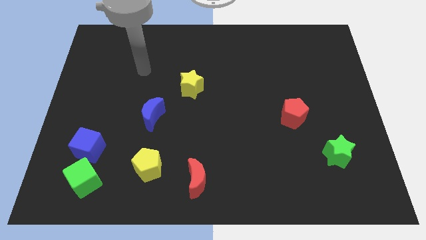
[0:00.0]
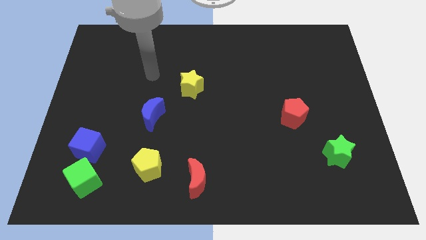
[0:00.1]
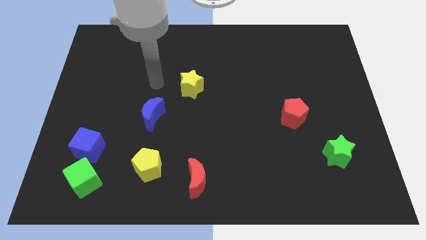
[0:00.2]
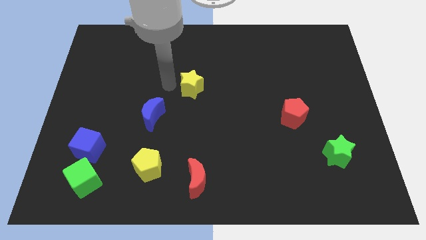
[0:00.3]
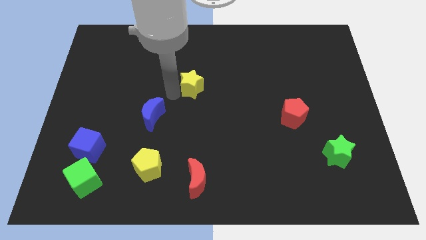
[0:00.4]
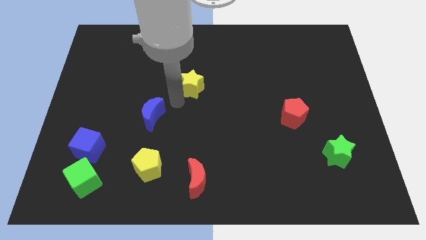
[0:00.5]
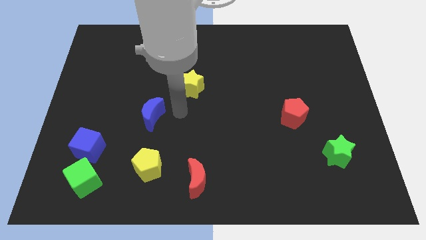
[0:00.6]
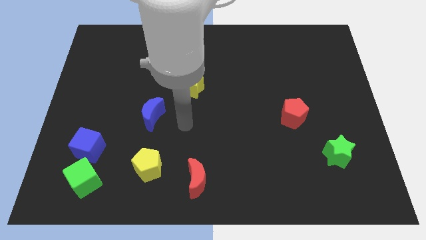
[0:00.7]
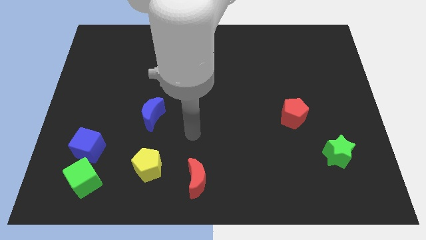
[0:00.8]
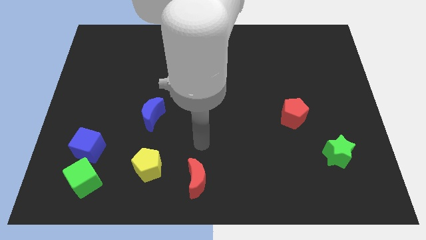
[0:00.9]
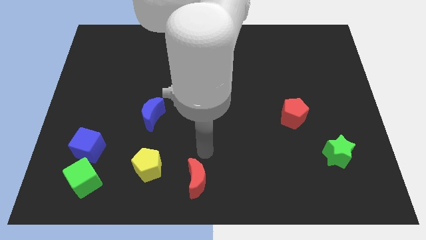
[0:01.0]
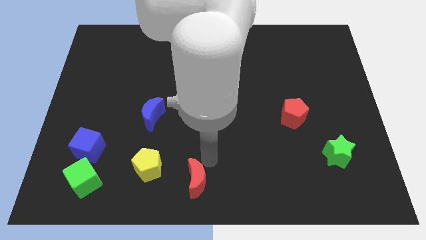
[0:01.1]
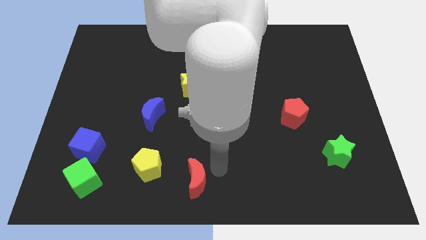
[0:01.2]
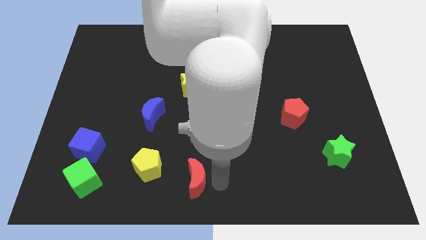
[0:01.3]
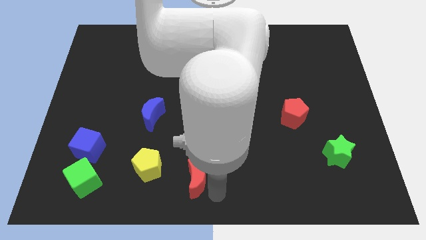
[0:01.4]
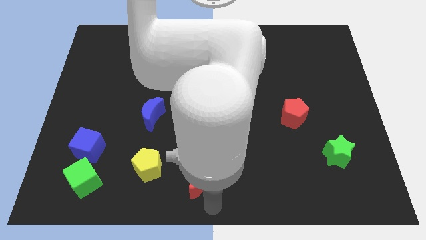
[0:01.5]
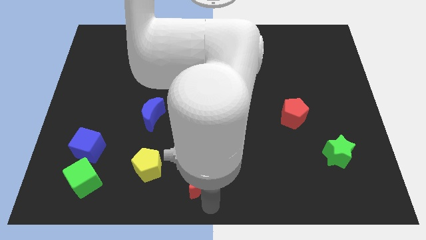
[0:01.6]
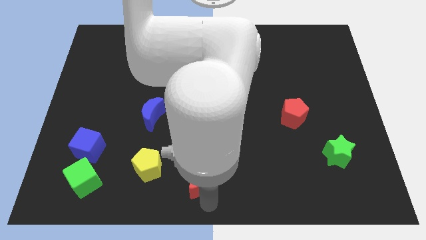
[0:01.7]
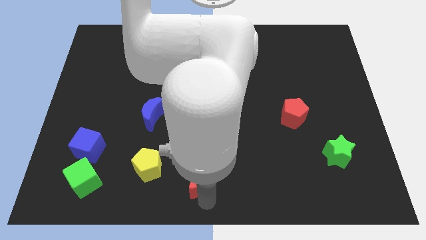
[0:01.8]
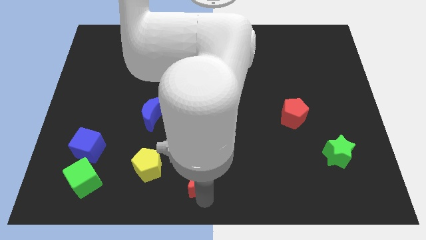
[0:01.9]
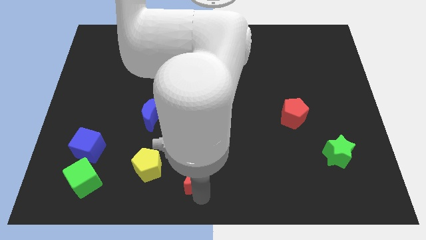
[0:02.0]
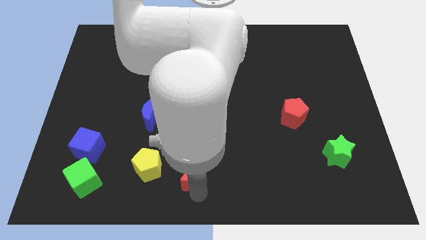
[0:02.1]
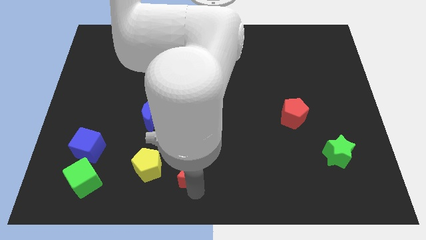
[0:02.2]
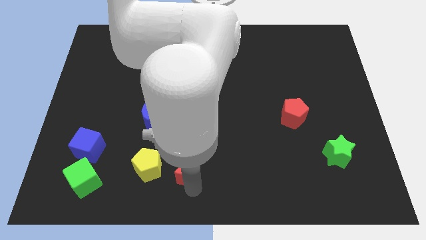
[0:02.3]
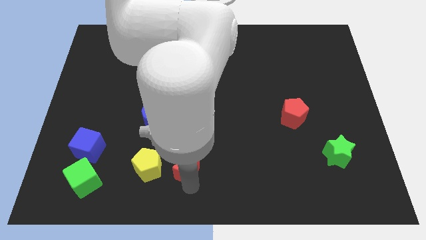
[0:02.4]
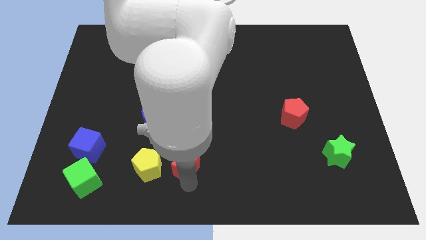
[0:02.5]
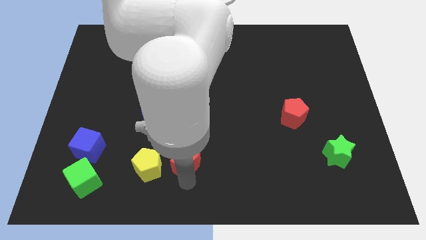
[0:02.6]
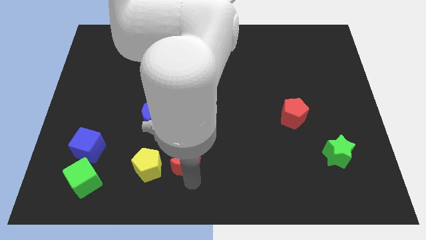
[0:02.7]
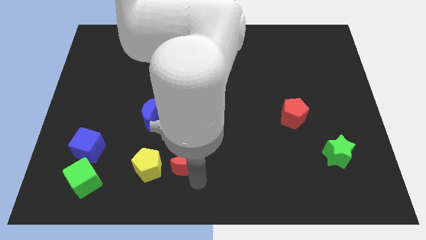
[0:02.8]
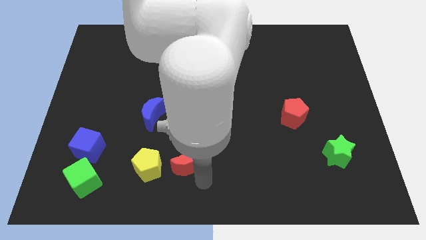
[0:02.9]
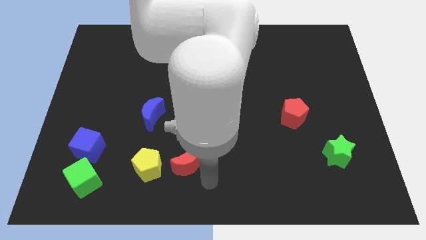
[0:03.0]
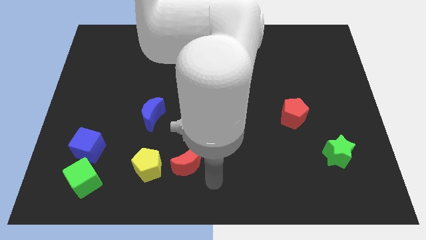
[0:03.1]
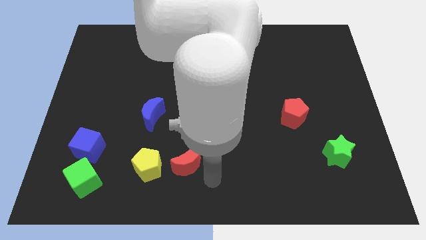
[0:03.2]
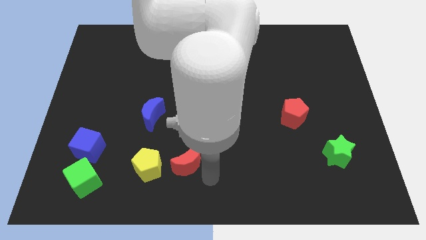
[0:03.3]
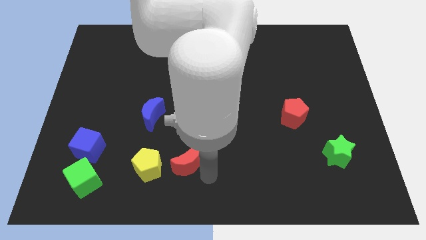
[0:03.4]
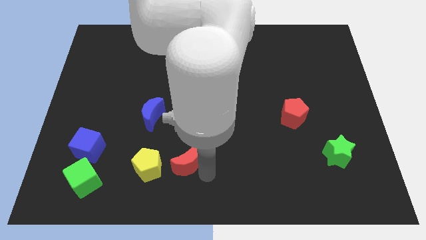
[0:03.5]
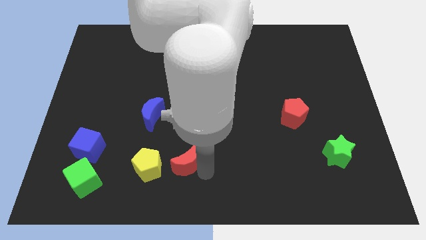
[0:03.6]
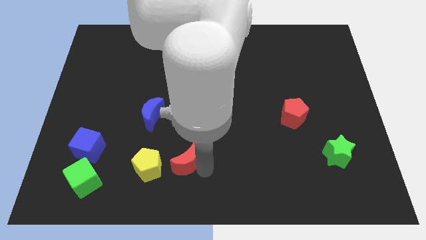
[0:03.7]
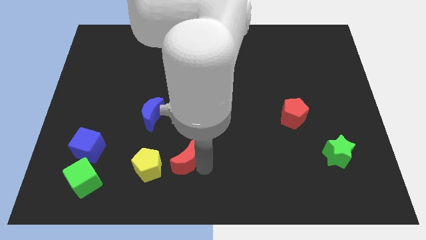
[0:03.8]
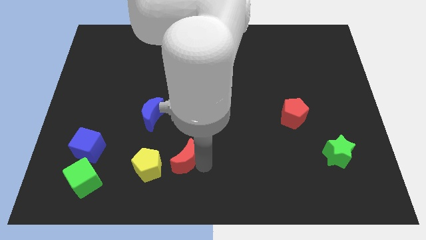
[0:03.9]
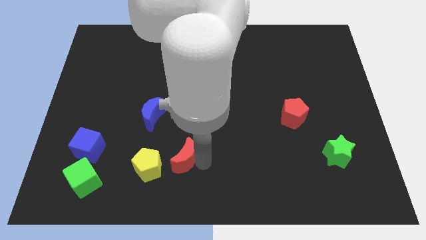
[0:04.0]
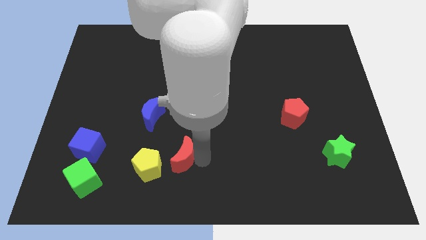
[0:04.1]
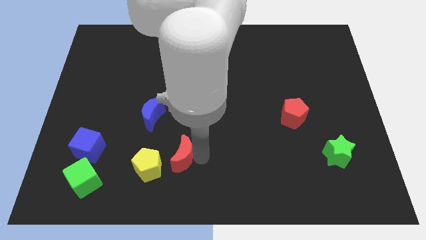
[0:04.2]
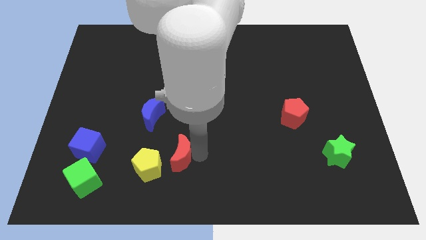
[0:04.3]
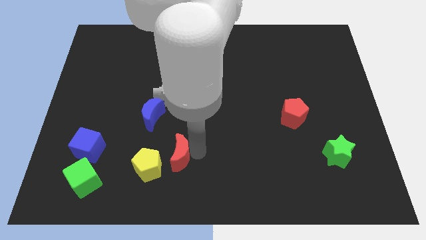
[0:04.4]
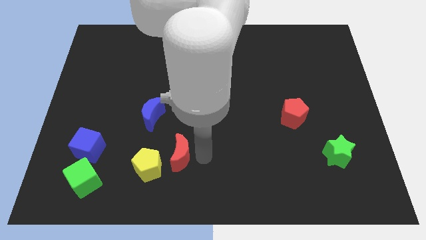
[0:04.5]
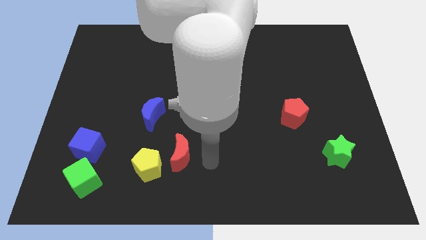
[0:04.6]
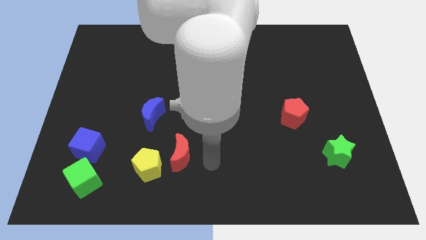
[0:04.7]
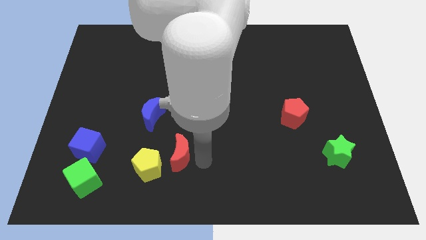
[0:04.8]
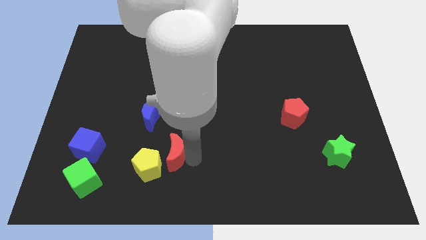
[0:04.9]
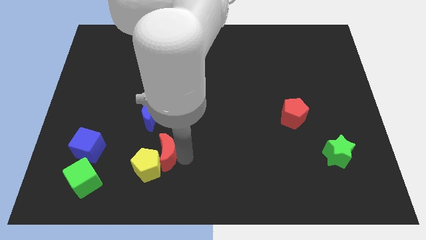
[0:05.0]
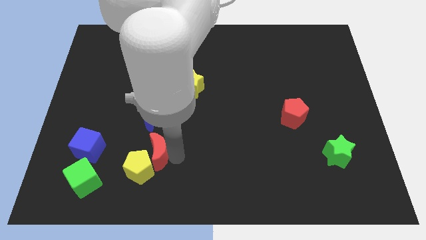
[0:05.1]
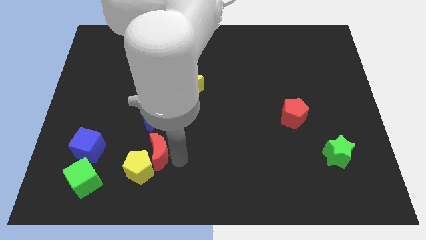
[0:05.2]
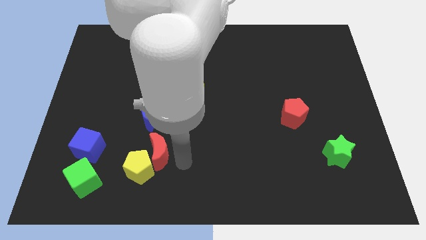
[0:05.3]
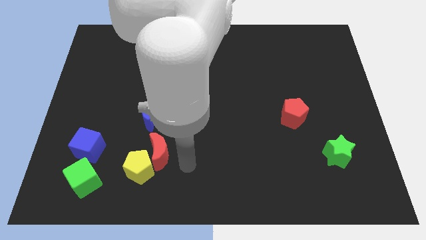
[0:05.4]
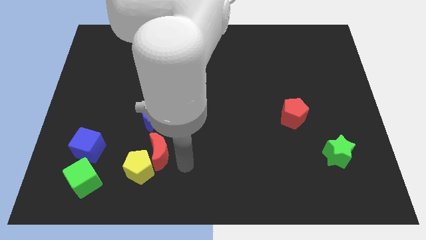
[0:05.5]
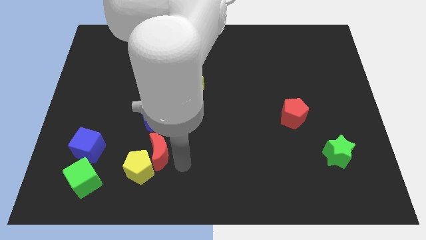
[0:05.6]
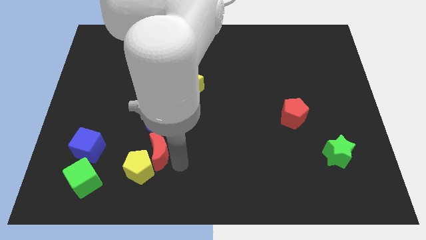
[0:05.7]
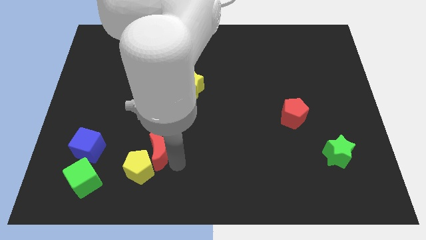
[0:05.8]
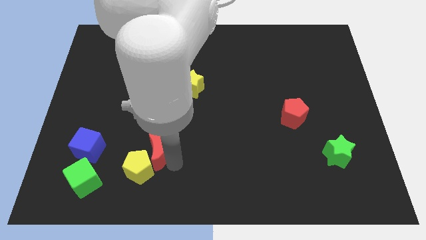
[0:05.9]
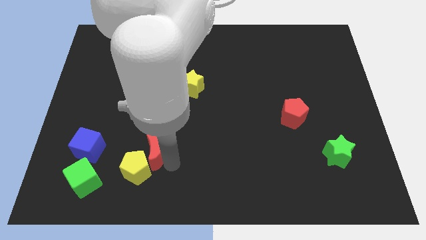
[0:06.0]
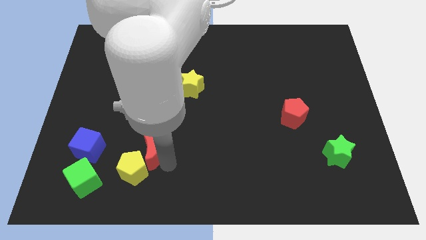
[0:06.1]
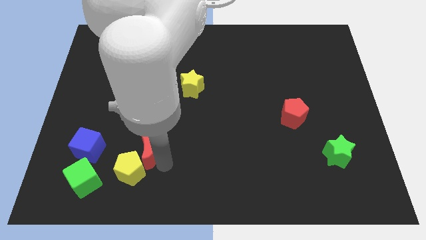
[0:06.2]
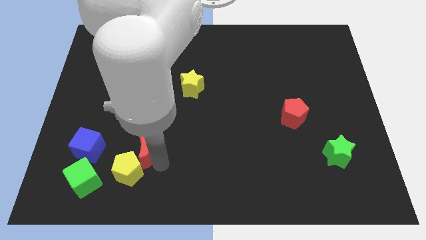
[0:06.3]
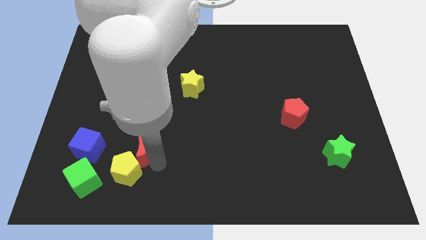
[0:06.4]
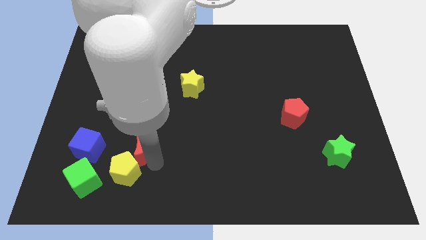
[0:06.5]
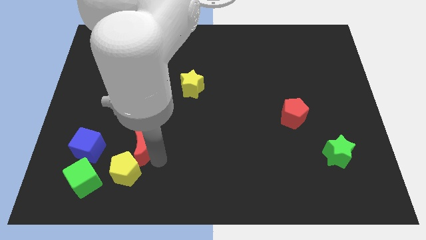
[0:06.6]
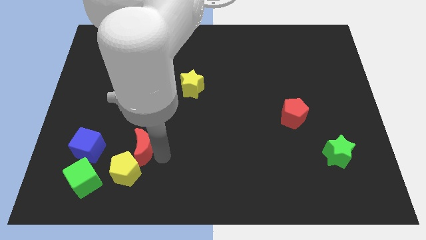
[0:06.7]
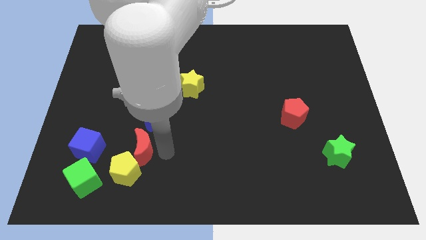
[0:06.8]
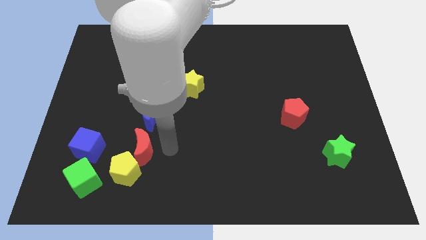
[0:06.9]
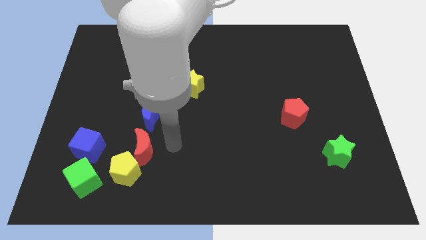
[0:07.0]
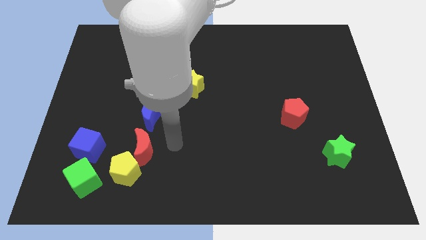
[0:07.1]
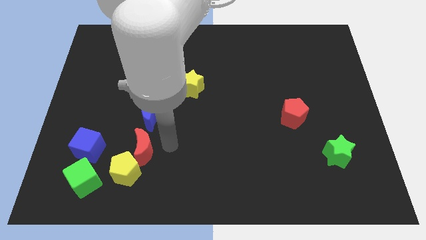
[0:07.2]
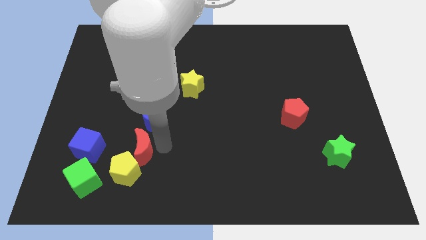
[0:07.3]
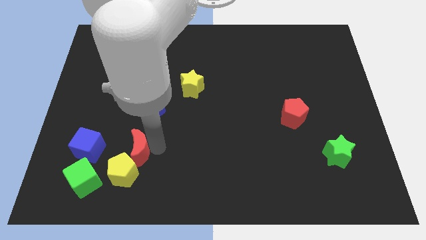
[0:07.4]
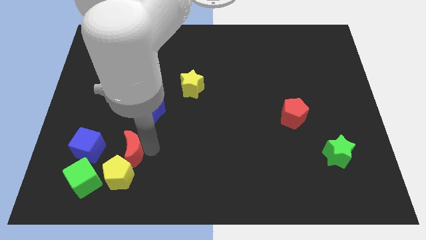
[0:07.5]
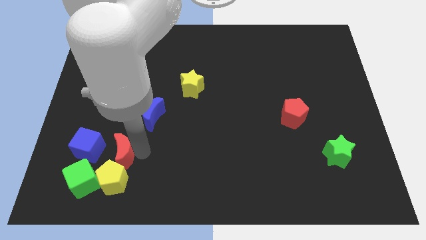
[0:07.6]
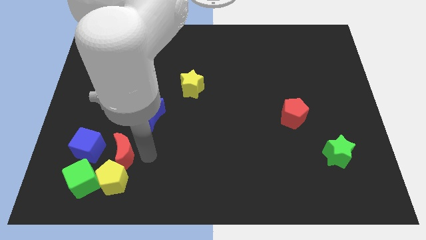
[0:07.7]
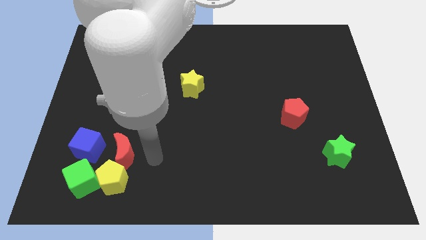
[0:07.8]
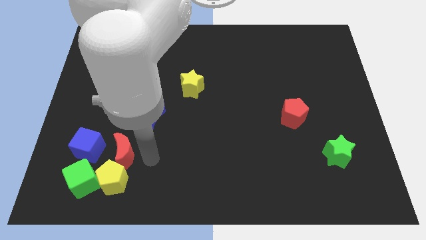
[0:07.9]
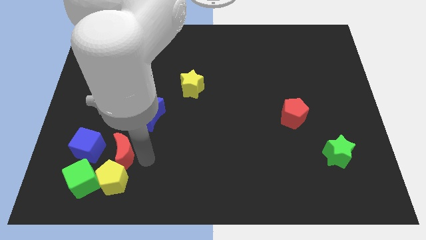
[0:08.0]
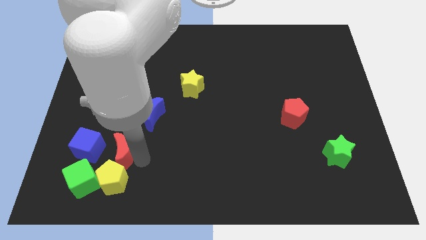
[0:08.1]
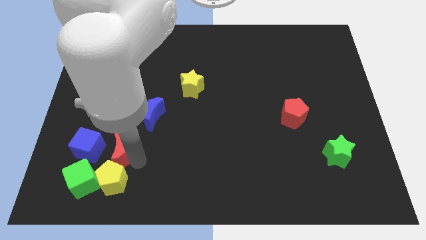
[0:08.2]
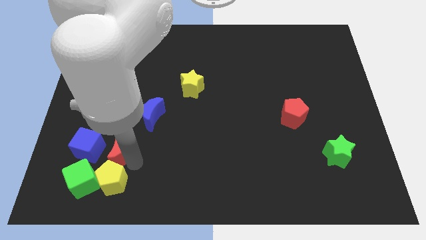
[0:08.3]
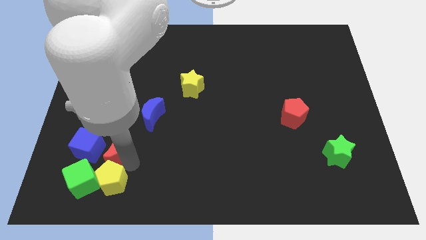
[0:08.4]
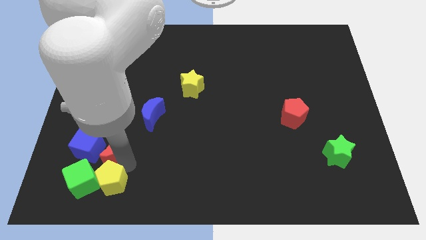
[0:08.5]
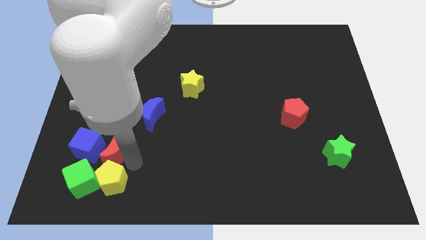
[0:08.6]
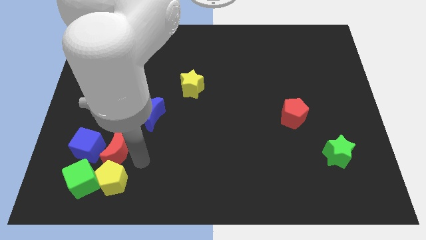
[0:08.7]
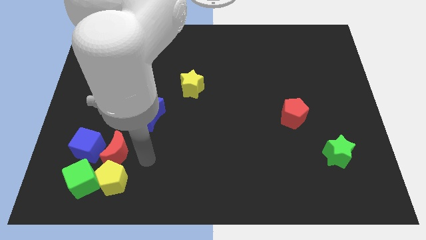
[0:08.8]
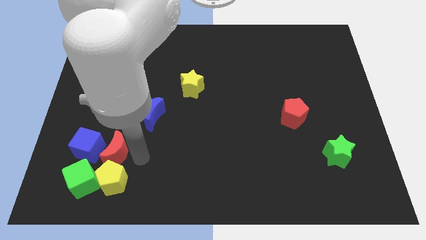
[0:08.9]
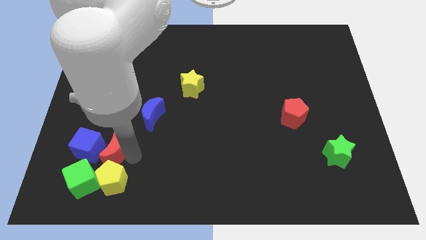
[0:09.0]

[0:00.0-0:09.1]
slide the red moon next to the blue cube
